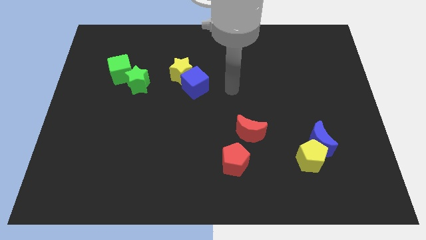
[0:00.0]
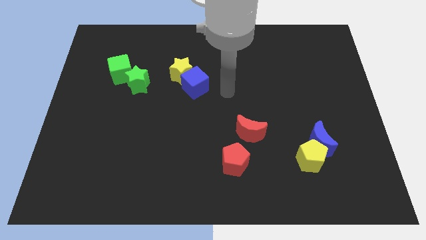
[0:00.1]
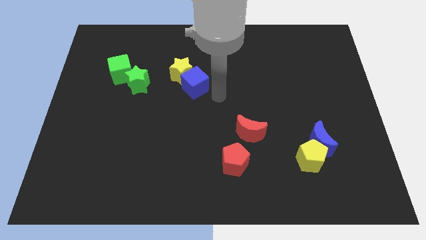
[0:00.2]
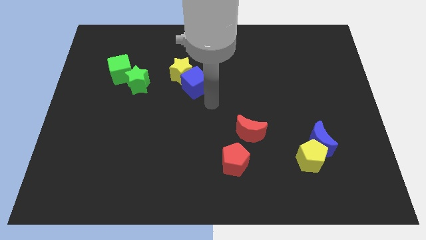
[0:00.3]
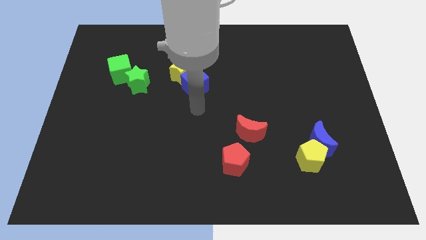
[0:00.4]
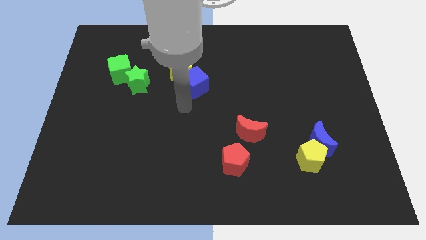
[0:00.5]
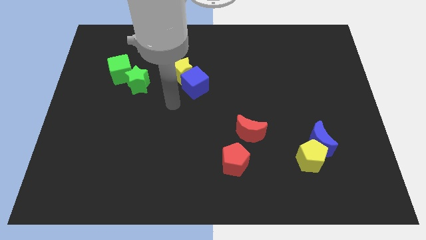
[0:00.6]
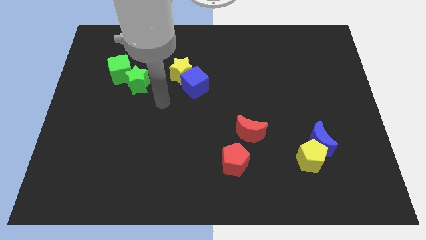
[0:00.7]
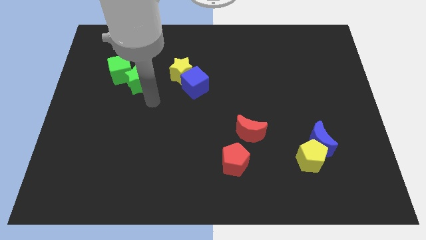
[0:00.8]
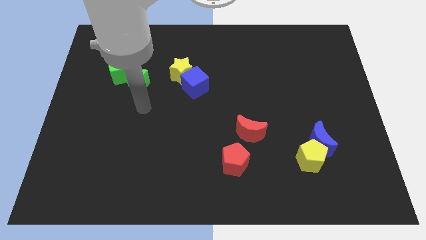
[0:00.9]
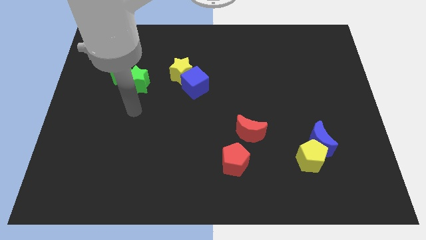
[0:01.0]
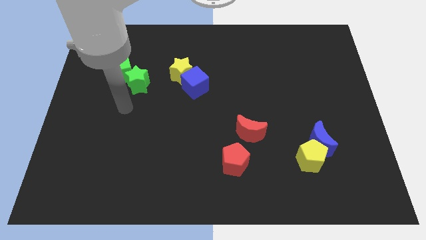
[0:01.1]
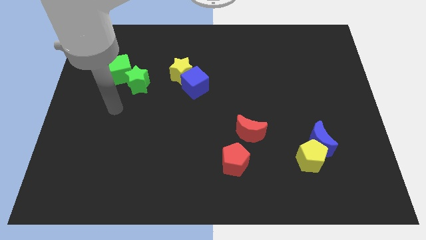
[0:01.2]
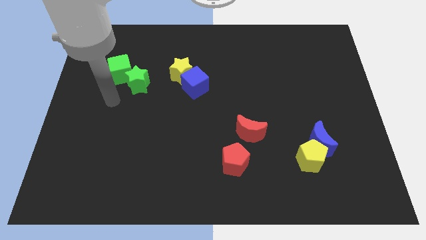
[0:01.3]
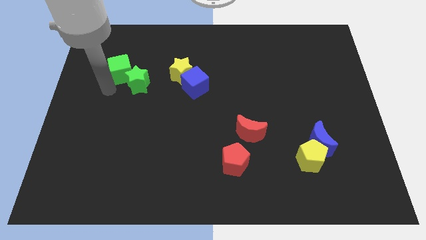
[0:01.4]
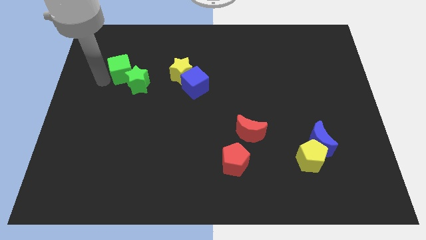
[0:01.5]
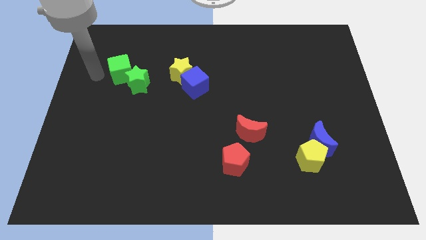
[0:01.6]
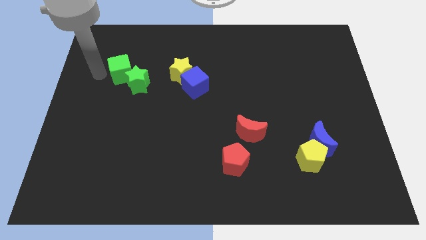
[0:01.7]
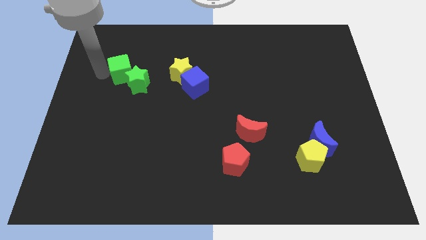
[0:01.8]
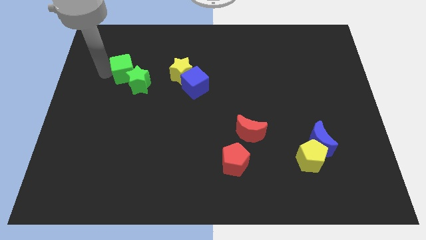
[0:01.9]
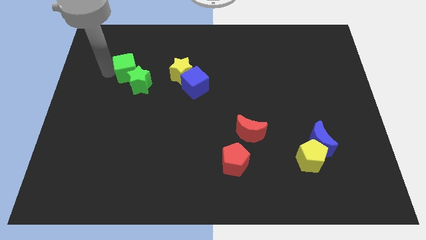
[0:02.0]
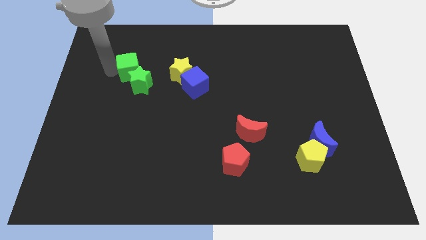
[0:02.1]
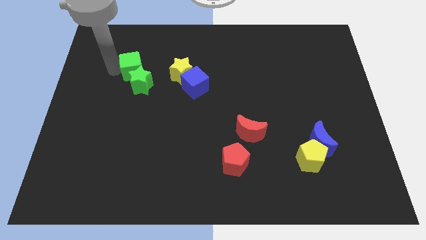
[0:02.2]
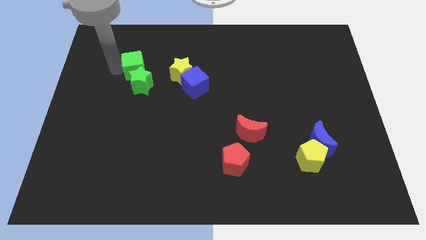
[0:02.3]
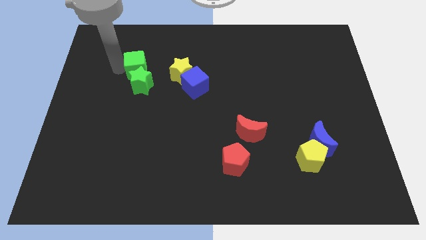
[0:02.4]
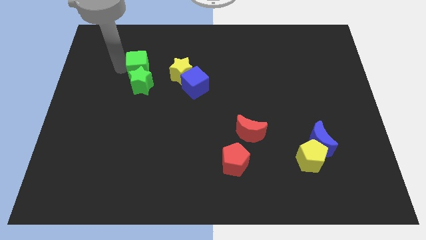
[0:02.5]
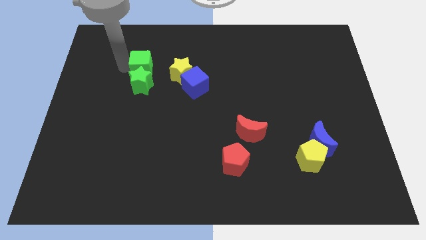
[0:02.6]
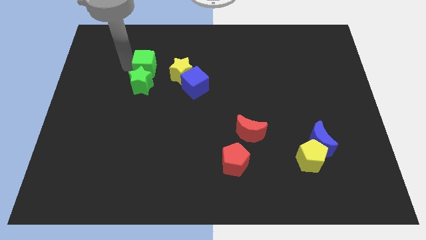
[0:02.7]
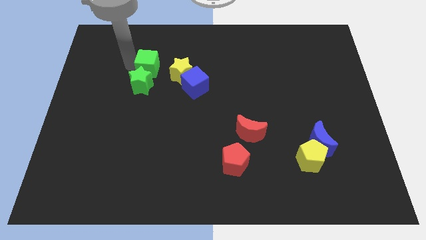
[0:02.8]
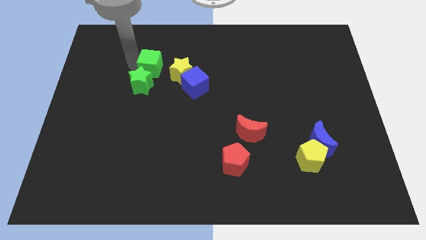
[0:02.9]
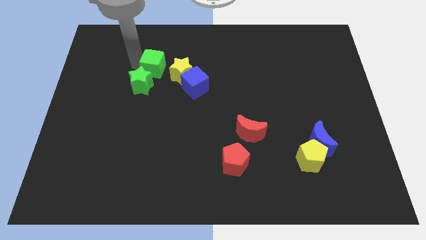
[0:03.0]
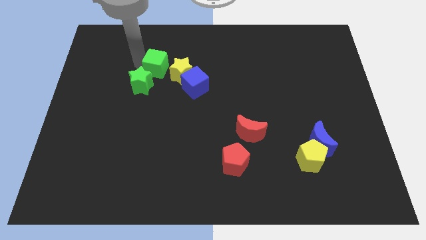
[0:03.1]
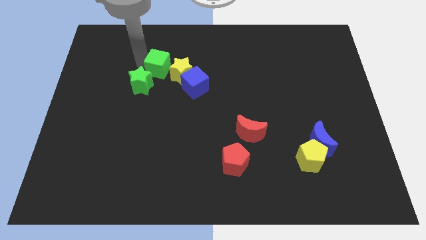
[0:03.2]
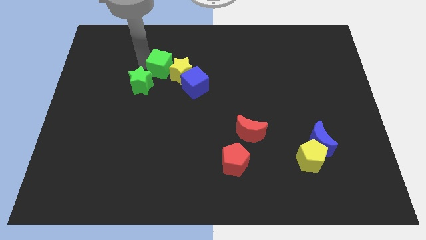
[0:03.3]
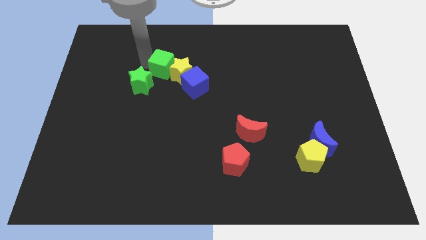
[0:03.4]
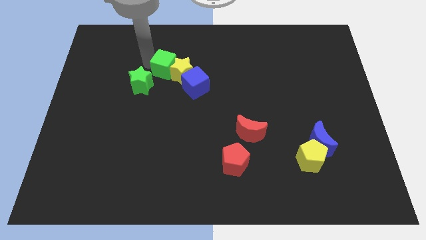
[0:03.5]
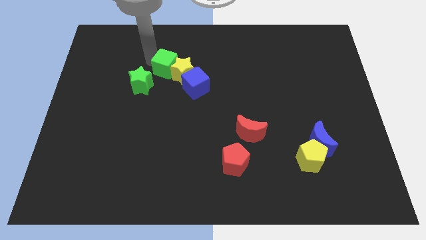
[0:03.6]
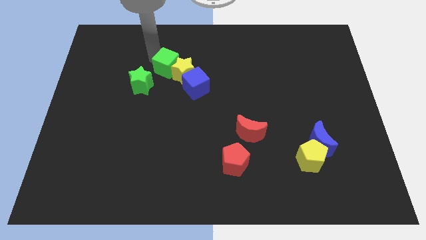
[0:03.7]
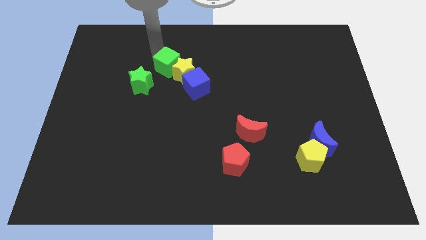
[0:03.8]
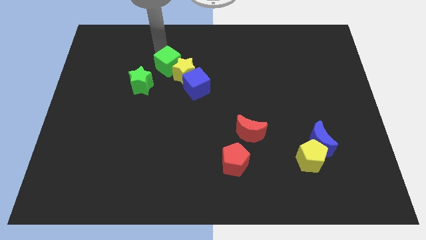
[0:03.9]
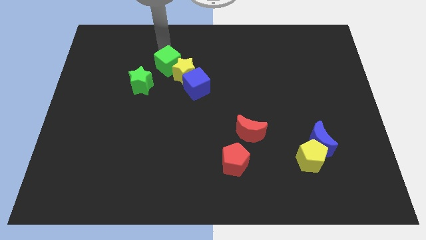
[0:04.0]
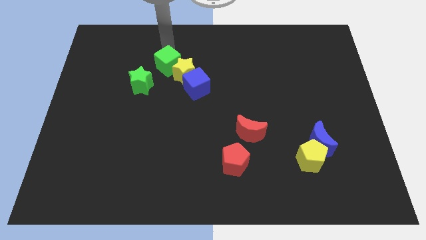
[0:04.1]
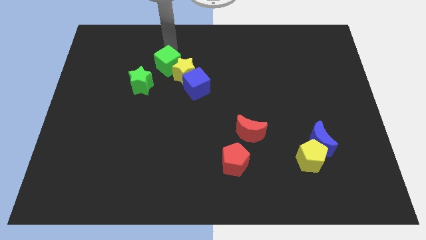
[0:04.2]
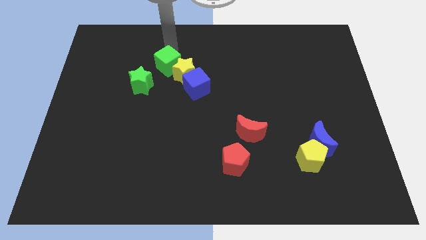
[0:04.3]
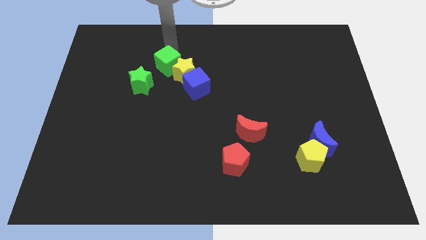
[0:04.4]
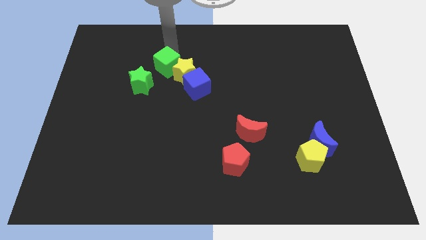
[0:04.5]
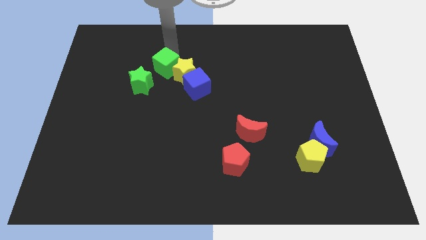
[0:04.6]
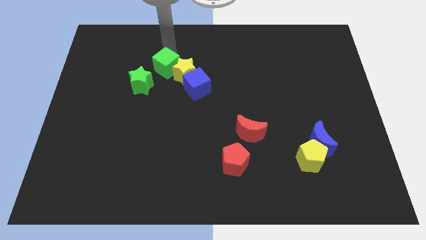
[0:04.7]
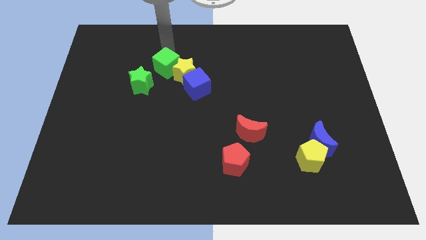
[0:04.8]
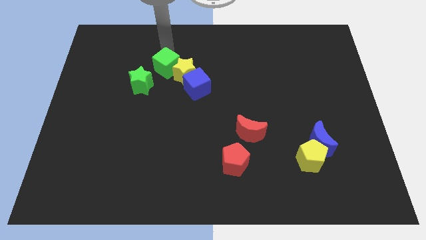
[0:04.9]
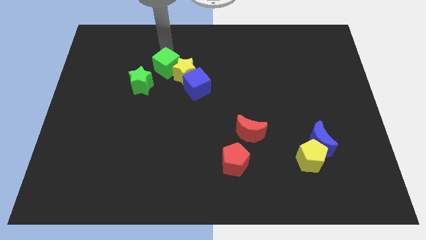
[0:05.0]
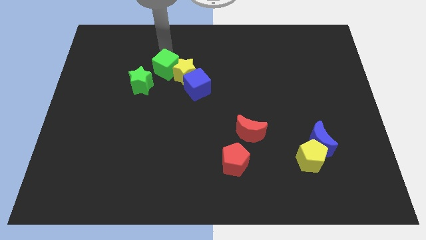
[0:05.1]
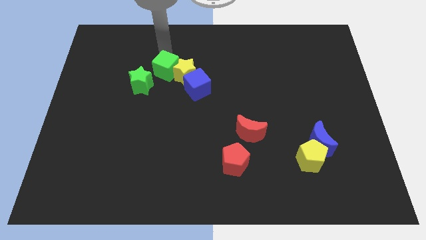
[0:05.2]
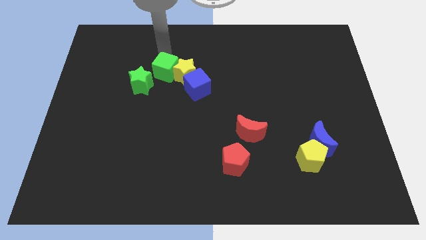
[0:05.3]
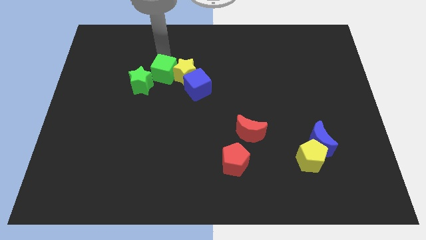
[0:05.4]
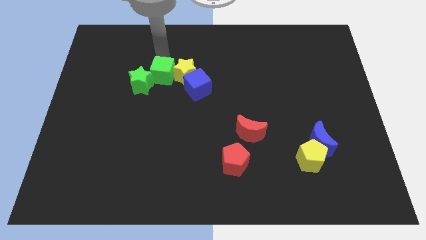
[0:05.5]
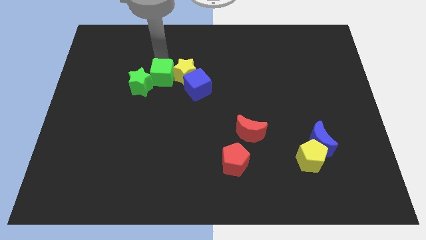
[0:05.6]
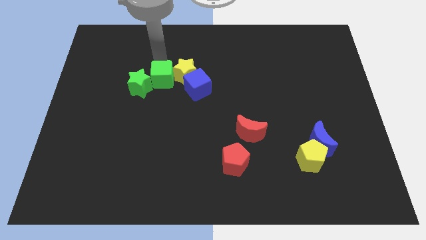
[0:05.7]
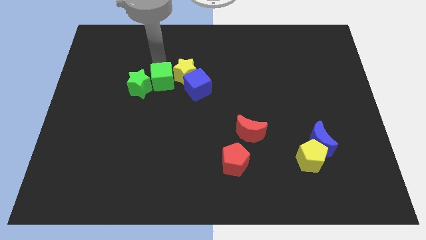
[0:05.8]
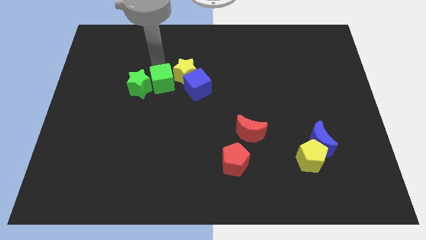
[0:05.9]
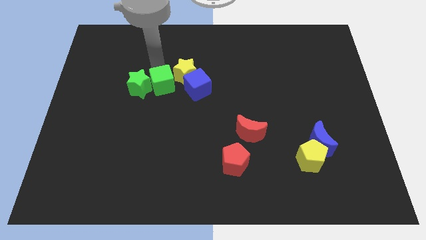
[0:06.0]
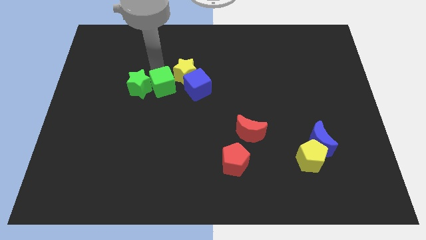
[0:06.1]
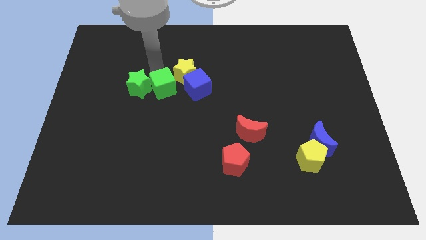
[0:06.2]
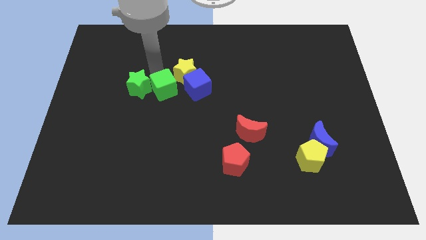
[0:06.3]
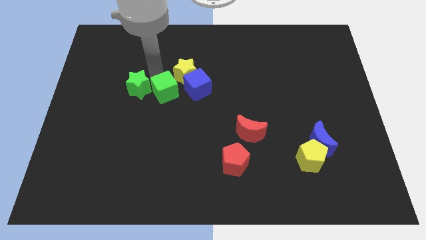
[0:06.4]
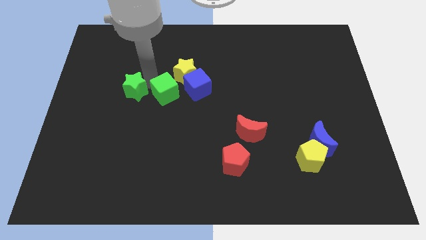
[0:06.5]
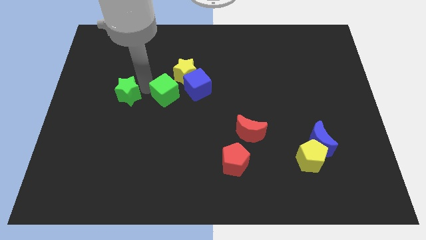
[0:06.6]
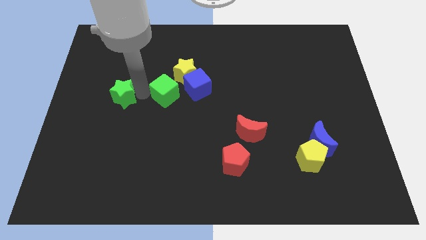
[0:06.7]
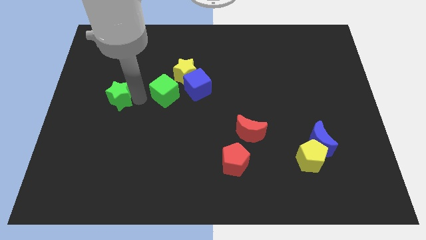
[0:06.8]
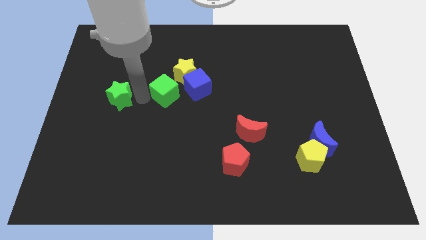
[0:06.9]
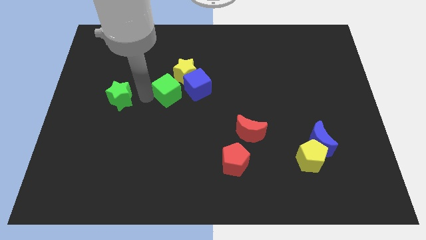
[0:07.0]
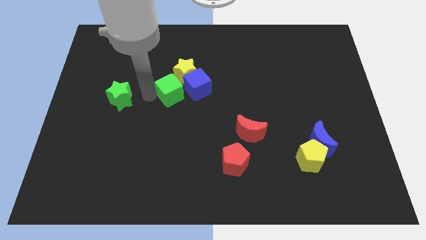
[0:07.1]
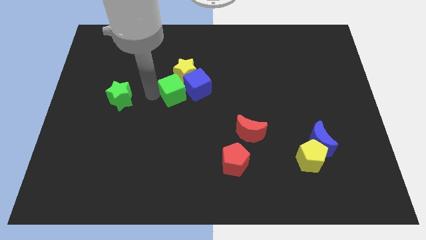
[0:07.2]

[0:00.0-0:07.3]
push the green cube towards the blue cube
